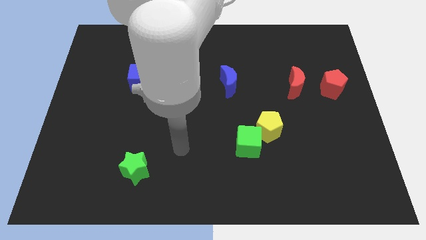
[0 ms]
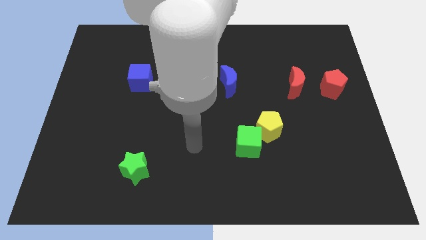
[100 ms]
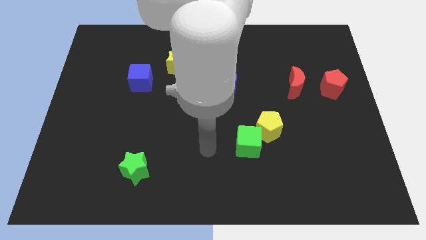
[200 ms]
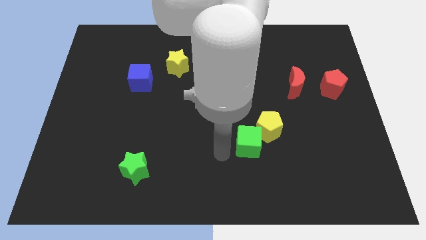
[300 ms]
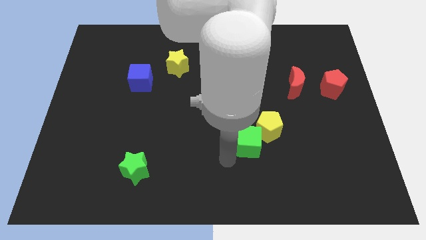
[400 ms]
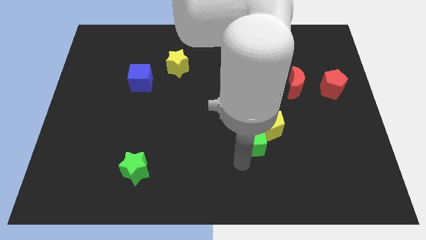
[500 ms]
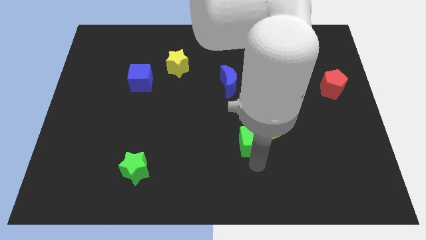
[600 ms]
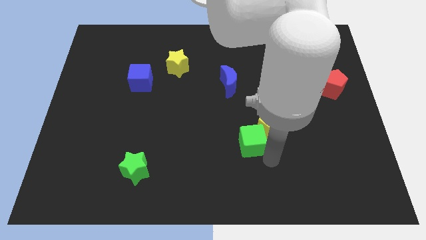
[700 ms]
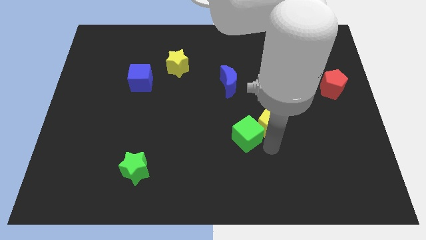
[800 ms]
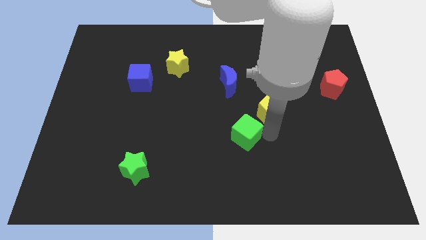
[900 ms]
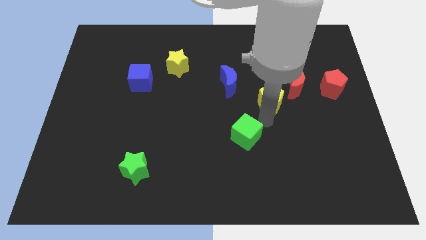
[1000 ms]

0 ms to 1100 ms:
pull the green cube apart from the yellow pentagon

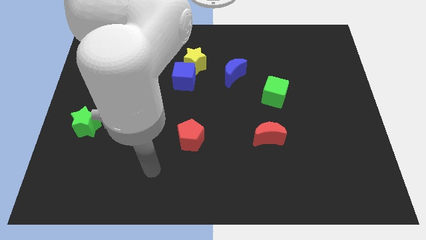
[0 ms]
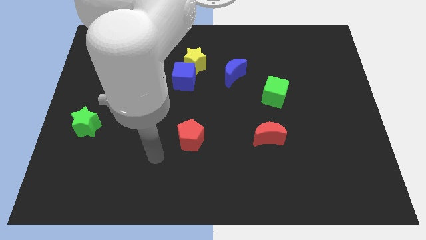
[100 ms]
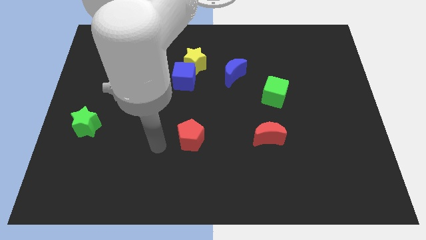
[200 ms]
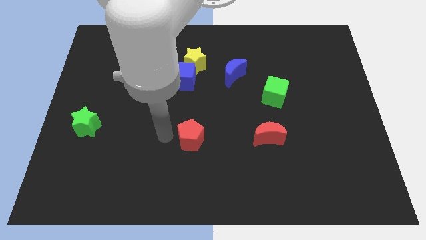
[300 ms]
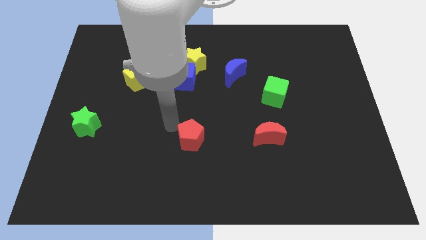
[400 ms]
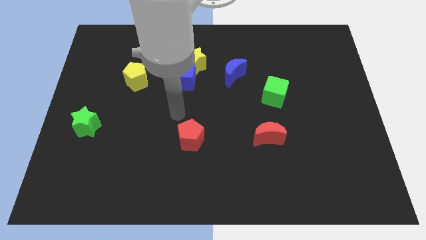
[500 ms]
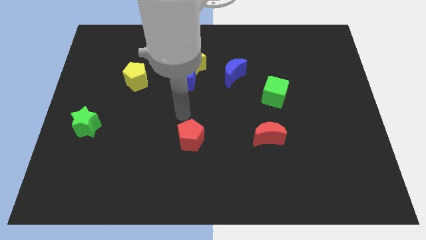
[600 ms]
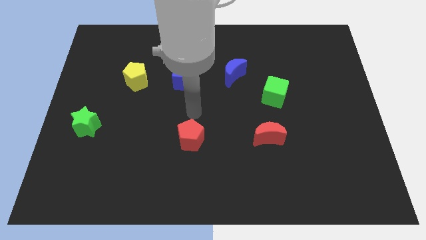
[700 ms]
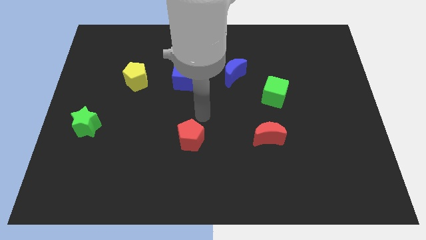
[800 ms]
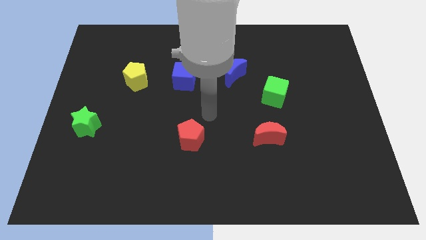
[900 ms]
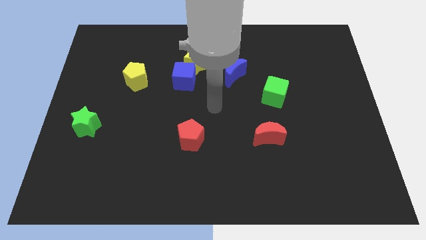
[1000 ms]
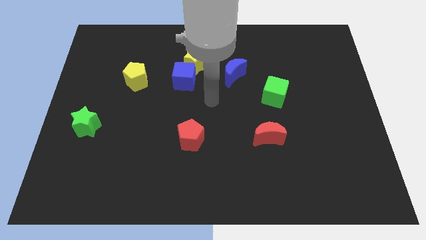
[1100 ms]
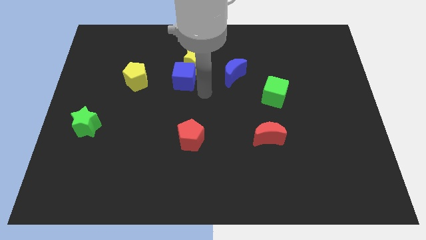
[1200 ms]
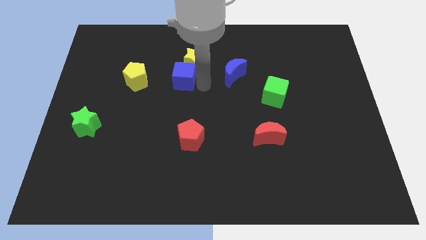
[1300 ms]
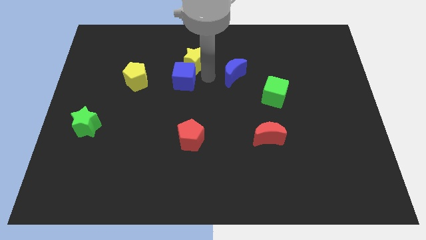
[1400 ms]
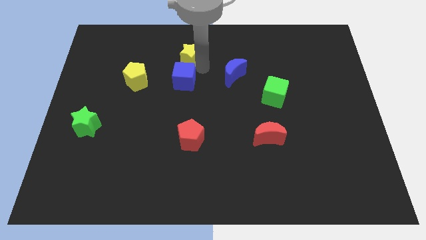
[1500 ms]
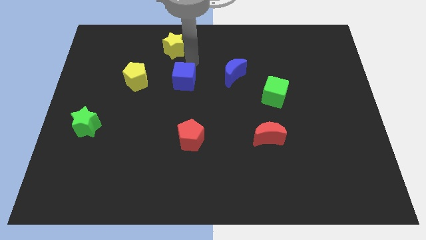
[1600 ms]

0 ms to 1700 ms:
separate the blue cube from the yellow star

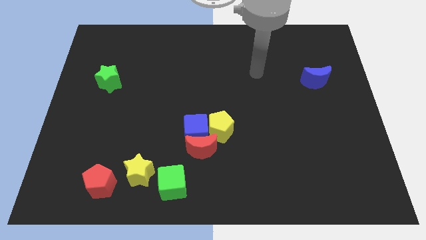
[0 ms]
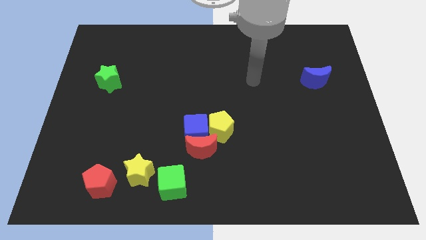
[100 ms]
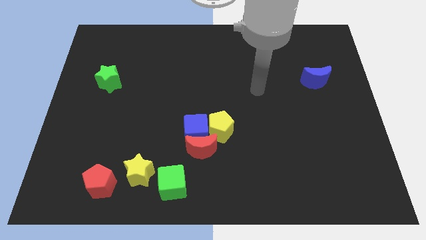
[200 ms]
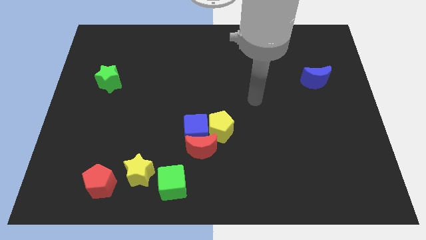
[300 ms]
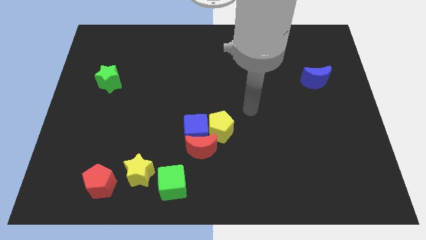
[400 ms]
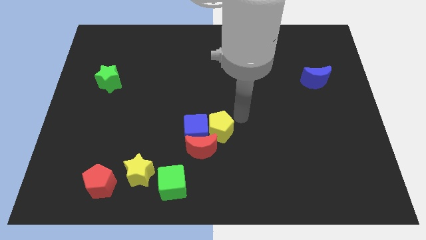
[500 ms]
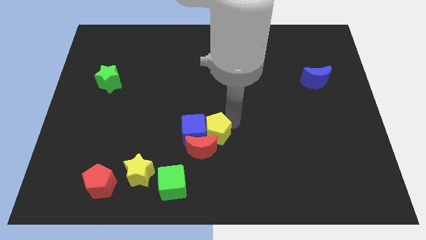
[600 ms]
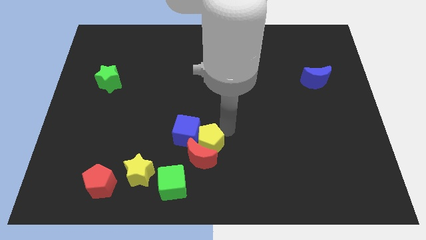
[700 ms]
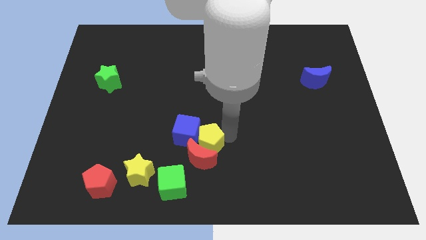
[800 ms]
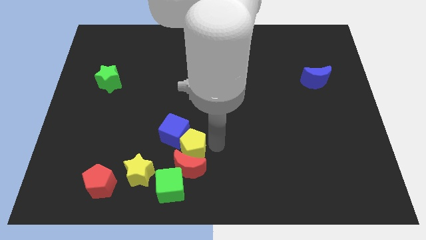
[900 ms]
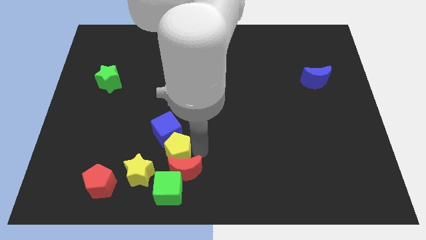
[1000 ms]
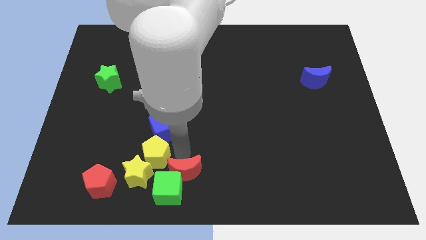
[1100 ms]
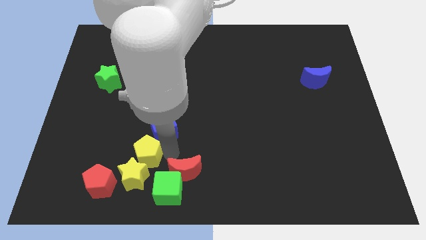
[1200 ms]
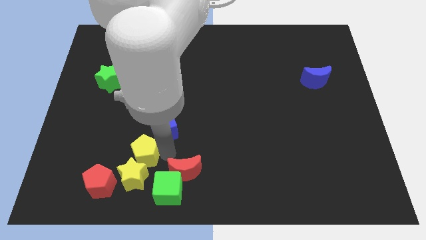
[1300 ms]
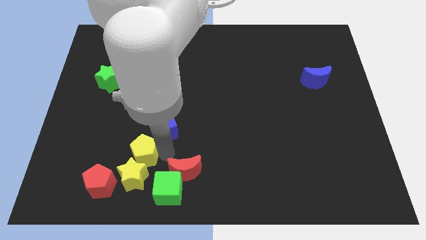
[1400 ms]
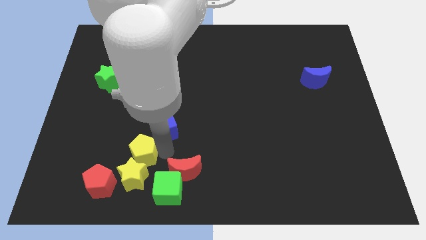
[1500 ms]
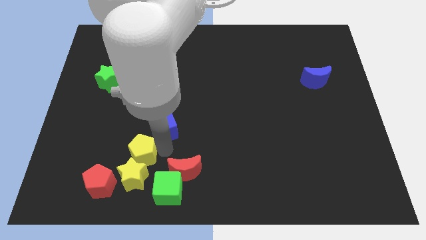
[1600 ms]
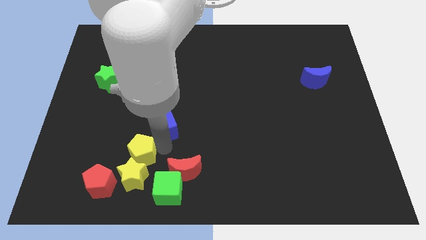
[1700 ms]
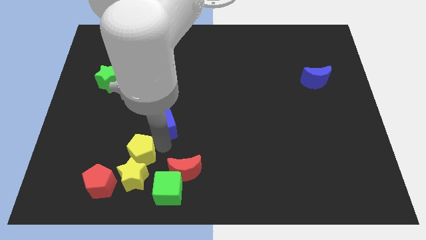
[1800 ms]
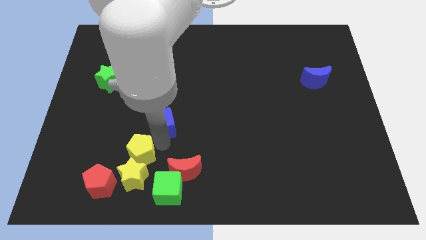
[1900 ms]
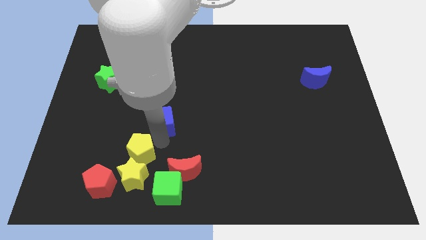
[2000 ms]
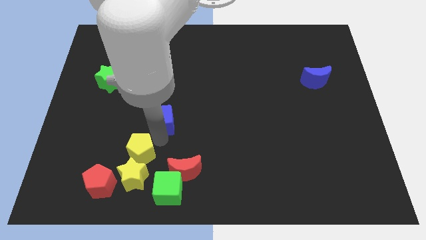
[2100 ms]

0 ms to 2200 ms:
separate the blue cube from the red moon and yellow pentagon

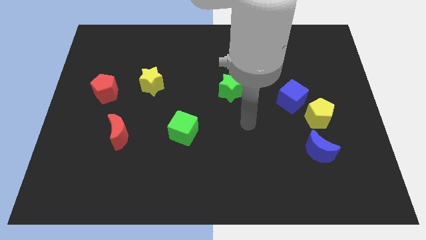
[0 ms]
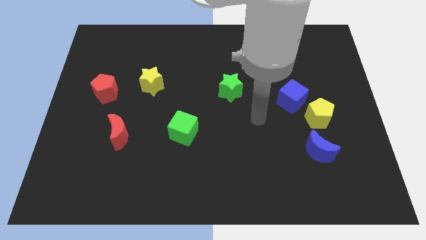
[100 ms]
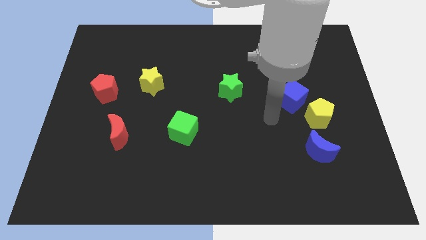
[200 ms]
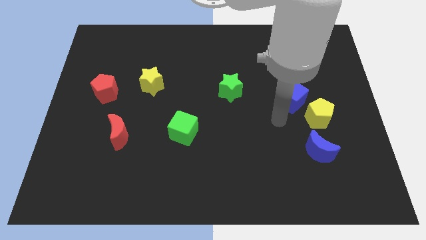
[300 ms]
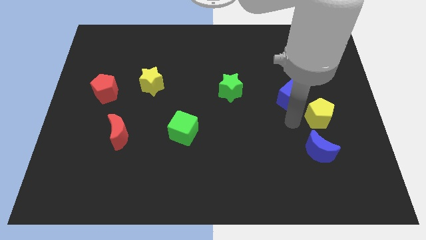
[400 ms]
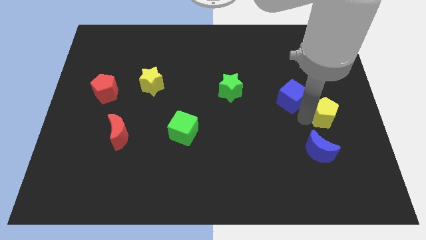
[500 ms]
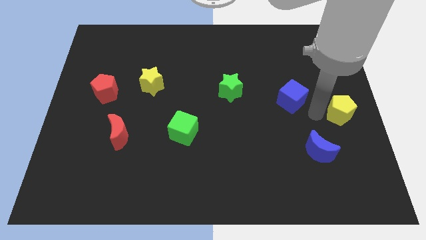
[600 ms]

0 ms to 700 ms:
pull the blue cube apart from the yellow pentagon

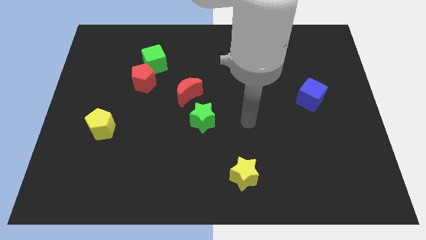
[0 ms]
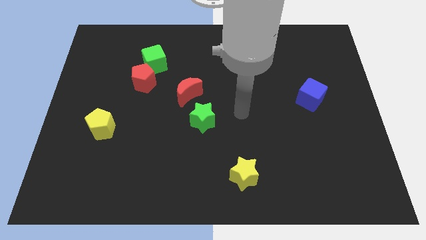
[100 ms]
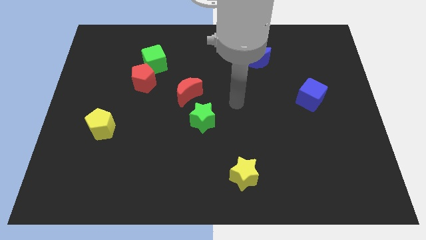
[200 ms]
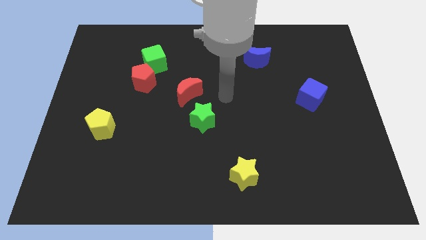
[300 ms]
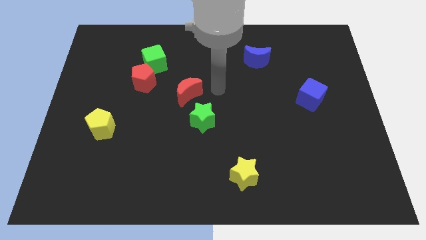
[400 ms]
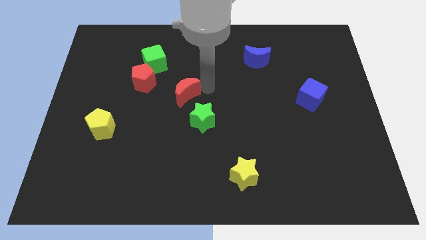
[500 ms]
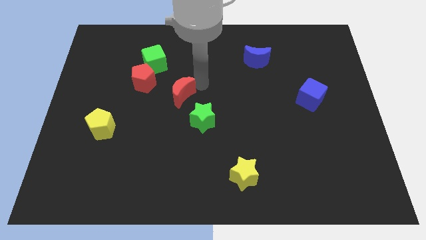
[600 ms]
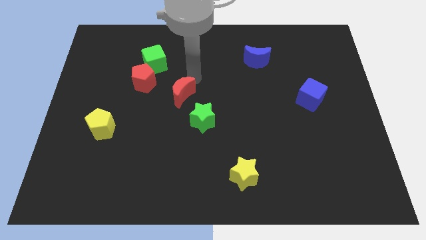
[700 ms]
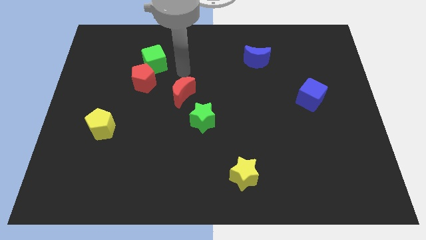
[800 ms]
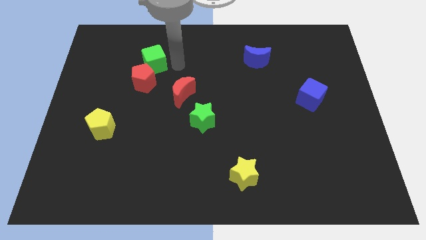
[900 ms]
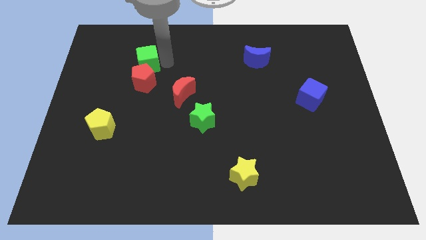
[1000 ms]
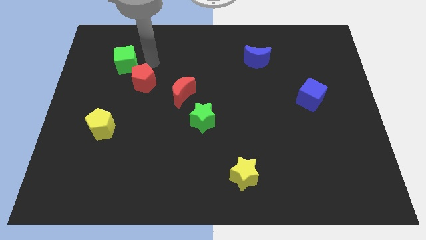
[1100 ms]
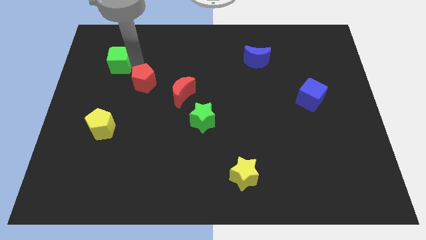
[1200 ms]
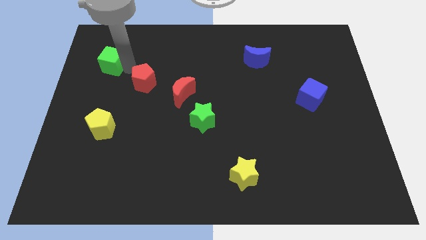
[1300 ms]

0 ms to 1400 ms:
move the red pentagon away from the green cube

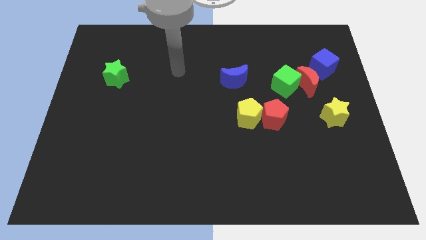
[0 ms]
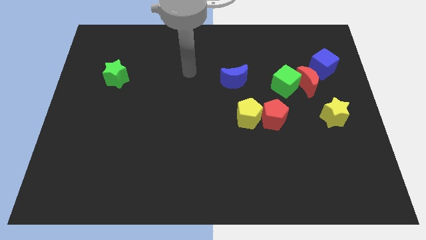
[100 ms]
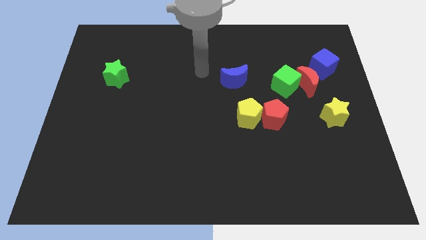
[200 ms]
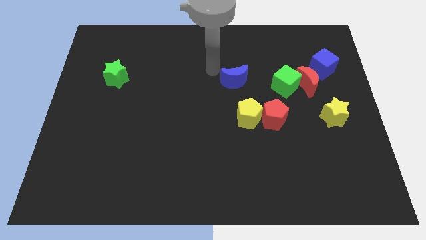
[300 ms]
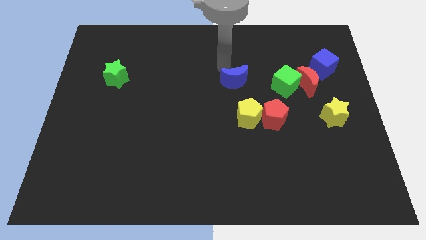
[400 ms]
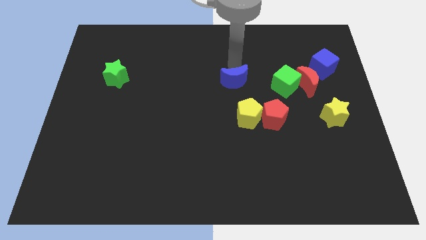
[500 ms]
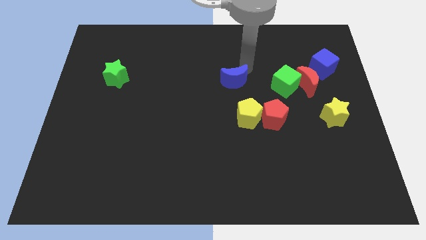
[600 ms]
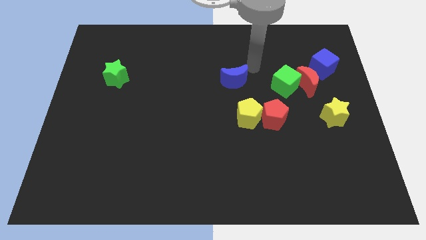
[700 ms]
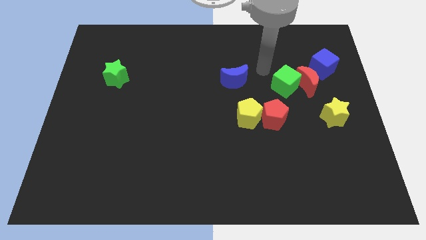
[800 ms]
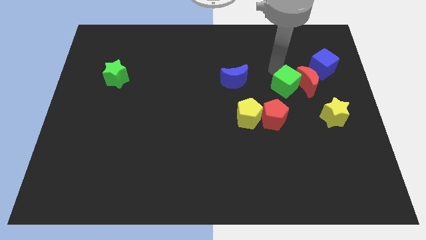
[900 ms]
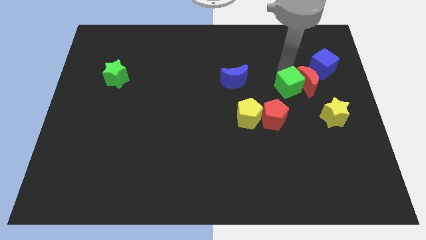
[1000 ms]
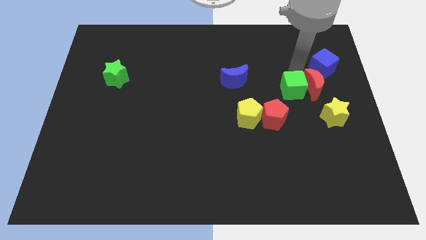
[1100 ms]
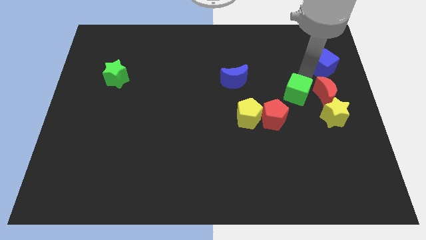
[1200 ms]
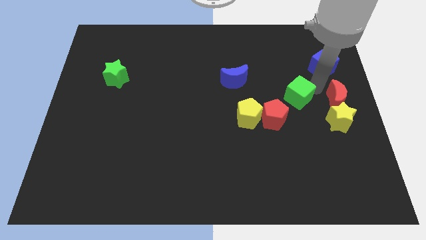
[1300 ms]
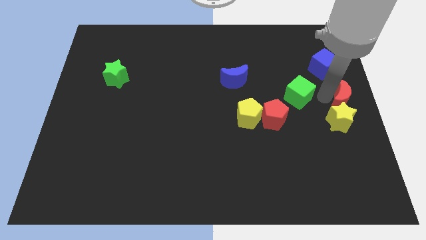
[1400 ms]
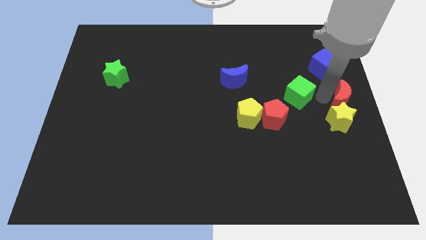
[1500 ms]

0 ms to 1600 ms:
separate the green cube from the red moon

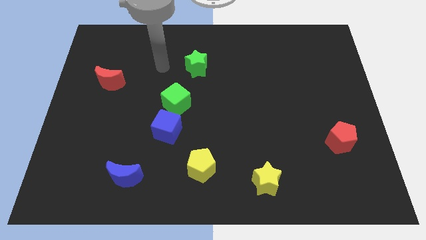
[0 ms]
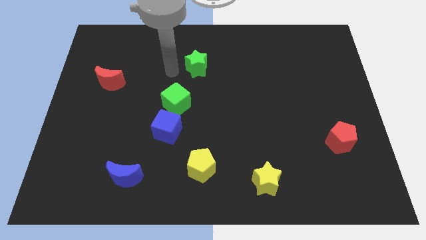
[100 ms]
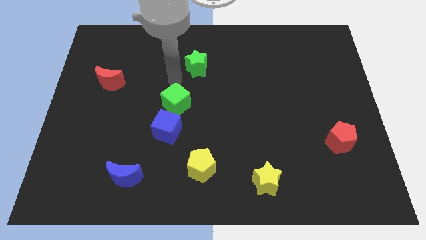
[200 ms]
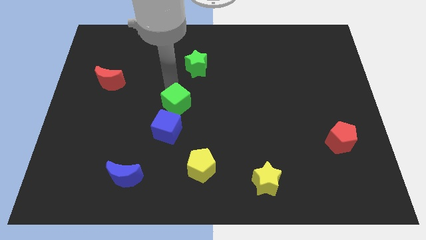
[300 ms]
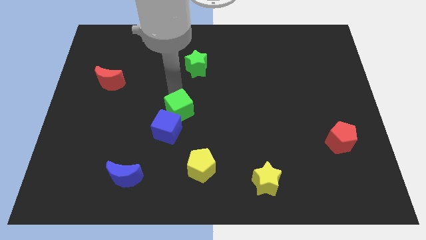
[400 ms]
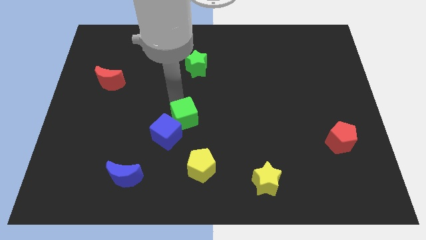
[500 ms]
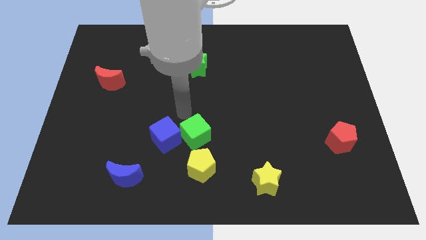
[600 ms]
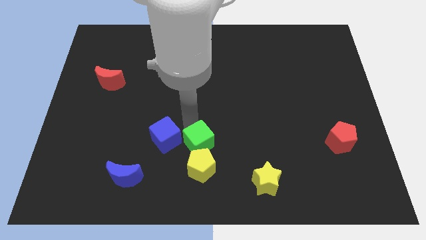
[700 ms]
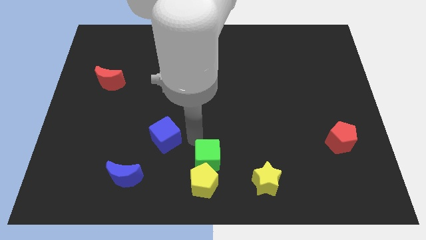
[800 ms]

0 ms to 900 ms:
pull the blue cube apart from the green cube
